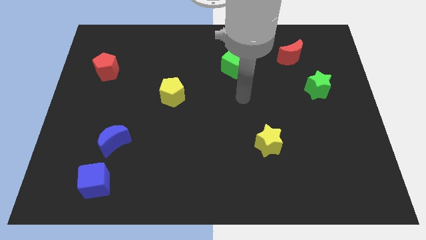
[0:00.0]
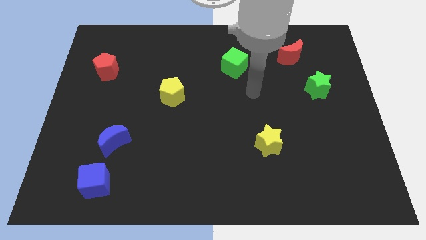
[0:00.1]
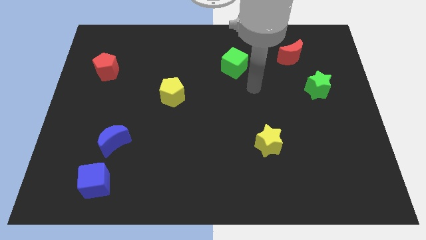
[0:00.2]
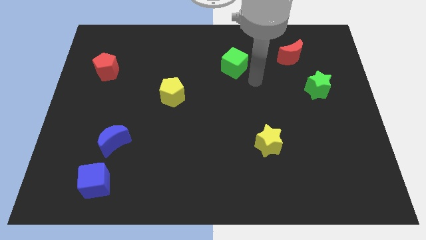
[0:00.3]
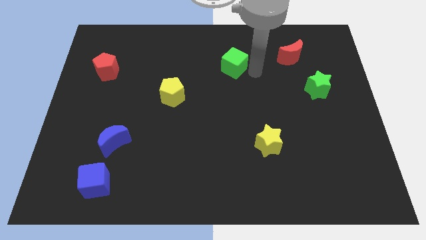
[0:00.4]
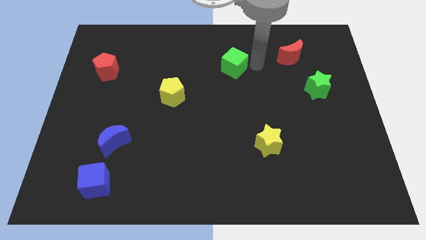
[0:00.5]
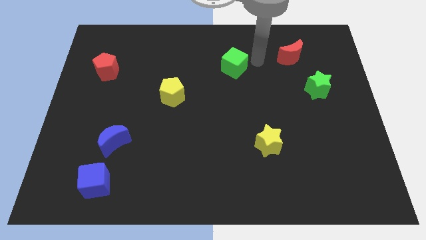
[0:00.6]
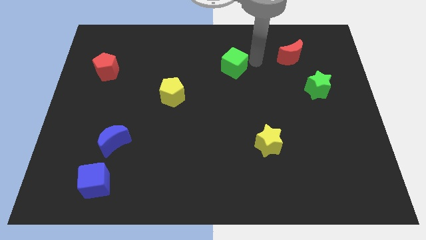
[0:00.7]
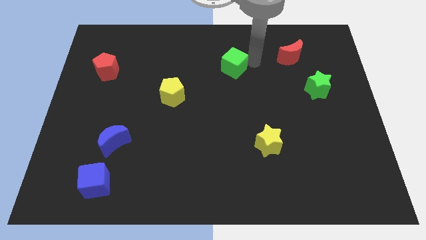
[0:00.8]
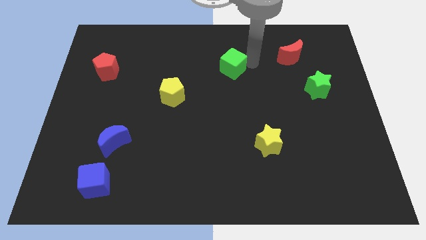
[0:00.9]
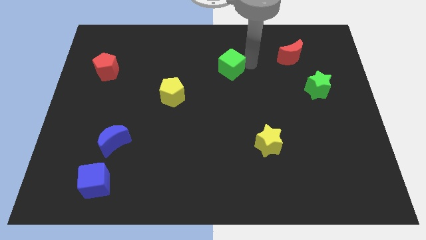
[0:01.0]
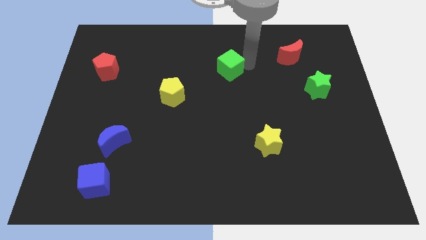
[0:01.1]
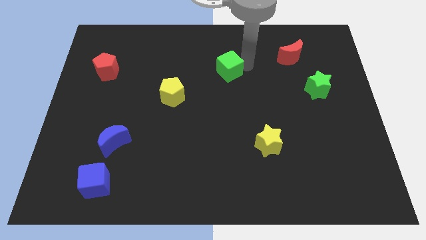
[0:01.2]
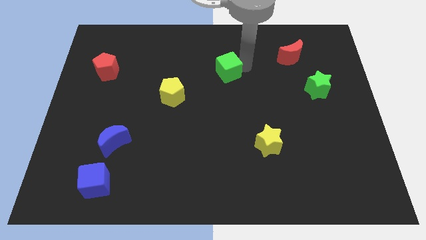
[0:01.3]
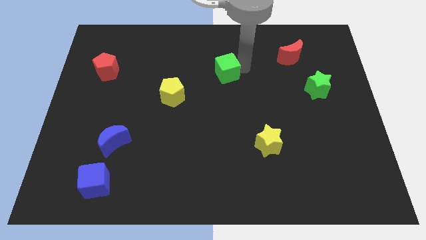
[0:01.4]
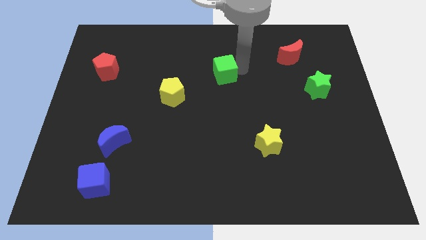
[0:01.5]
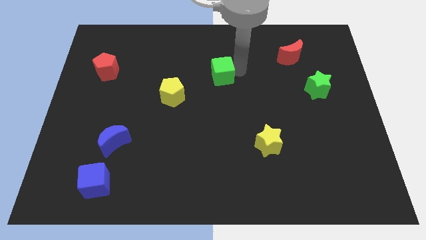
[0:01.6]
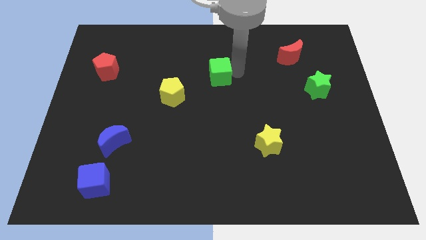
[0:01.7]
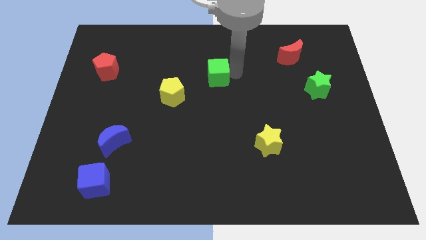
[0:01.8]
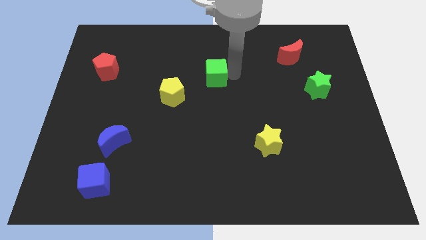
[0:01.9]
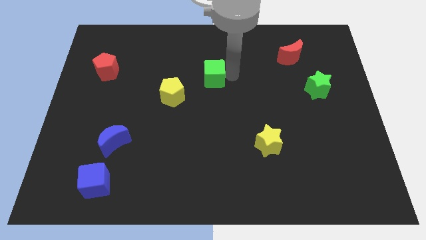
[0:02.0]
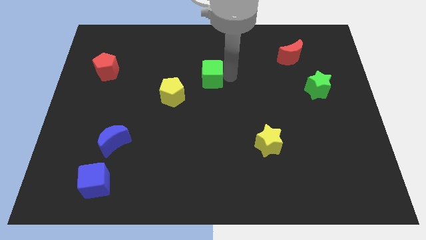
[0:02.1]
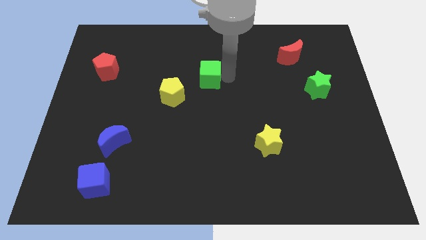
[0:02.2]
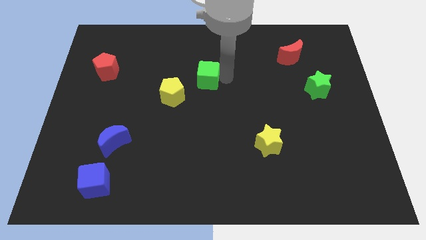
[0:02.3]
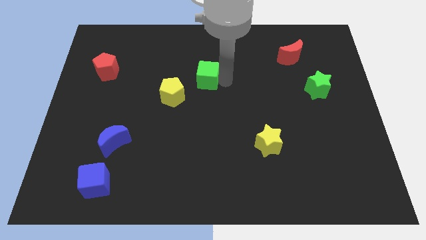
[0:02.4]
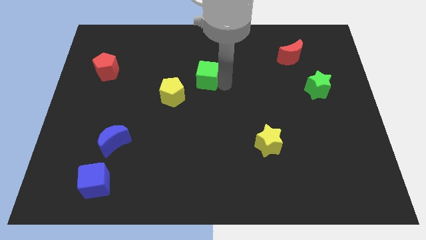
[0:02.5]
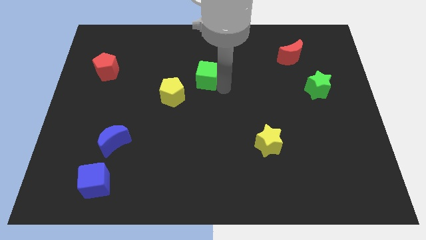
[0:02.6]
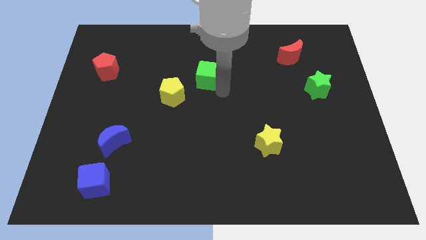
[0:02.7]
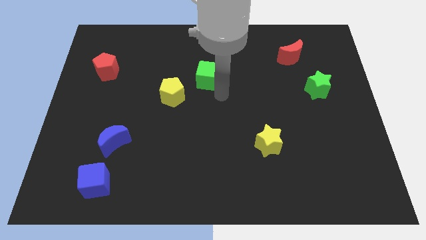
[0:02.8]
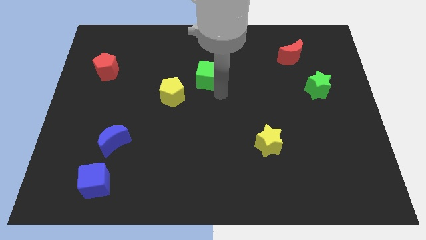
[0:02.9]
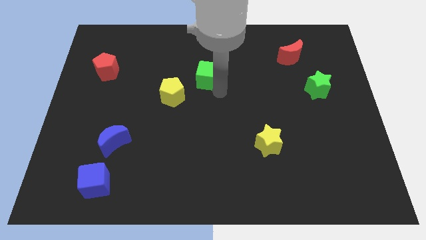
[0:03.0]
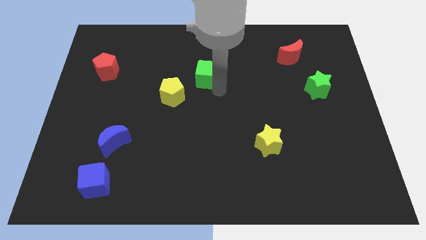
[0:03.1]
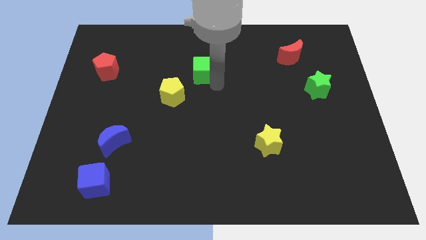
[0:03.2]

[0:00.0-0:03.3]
slide the green cube to the left a little bit

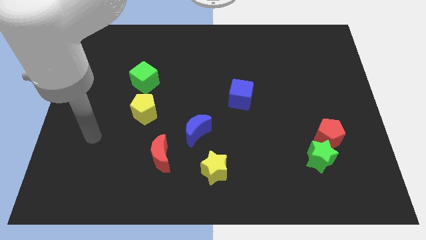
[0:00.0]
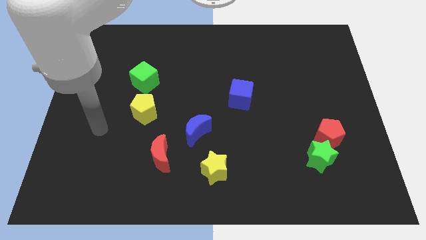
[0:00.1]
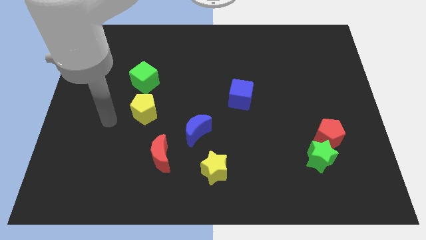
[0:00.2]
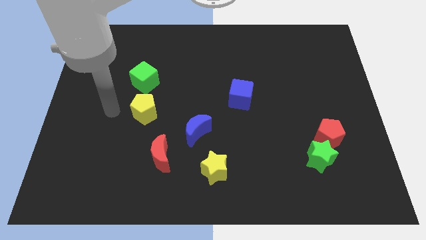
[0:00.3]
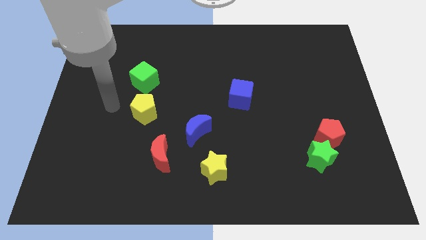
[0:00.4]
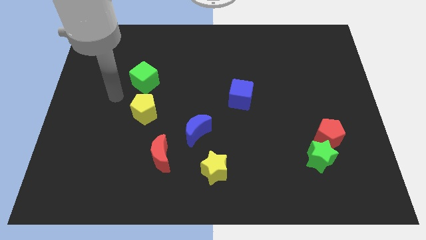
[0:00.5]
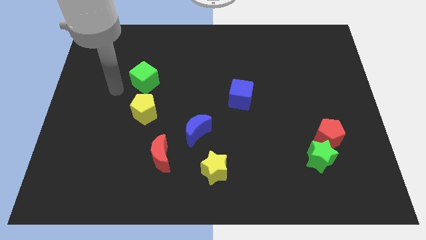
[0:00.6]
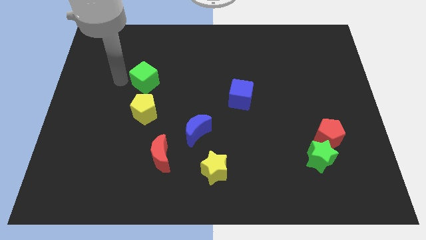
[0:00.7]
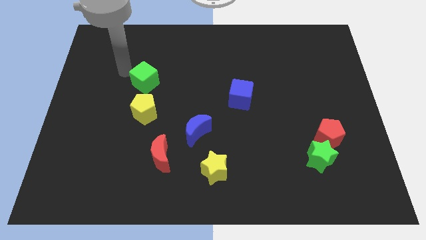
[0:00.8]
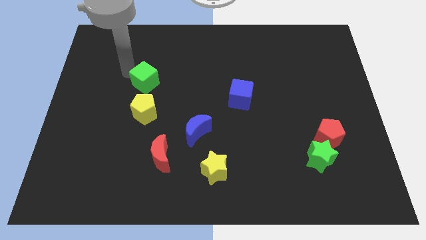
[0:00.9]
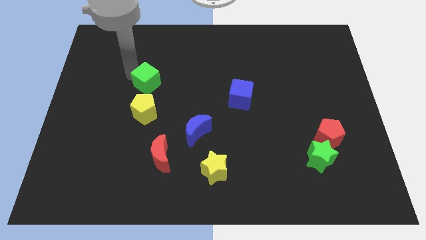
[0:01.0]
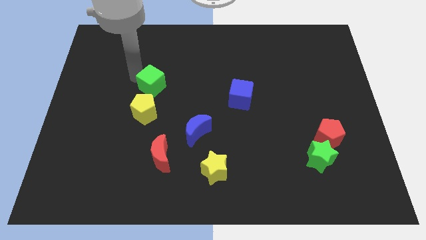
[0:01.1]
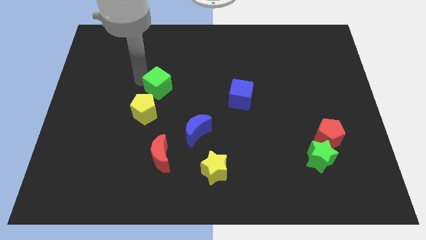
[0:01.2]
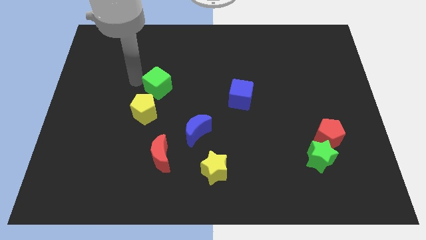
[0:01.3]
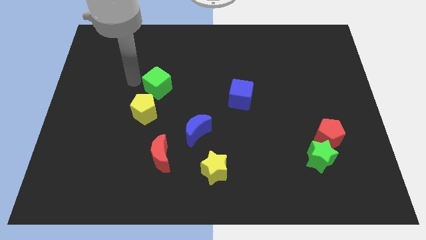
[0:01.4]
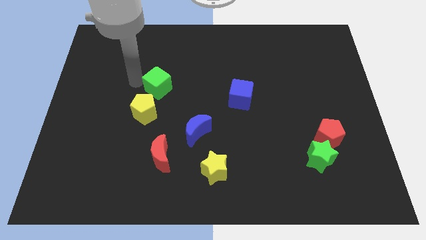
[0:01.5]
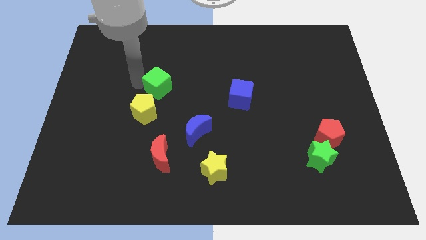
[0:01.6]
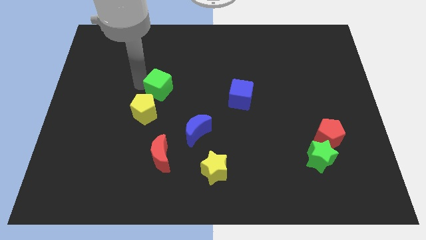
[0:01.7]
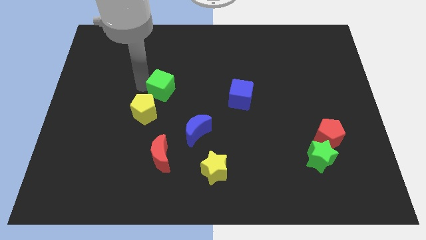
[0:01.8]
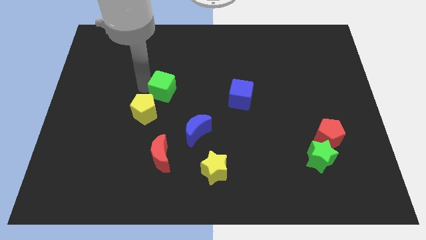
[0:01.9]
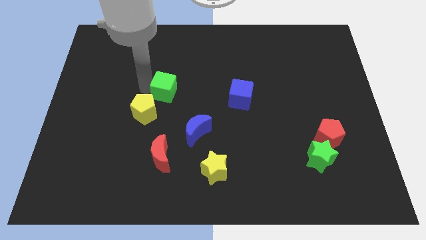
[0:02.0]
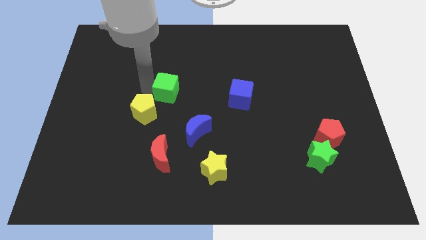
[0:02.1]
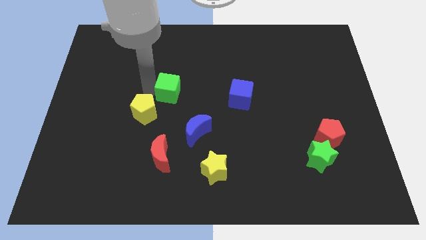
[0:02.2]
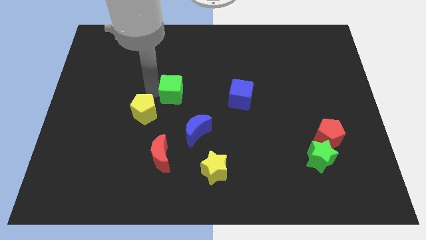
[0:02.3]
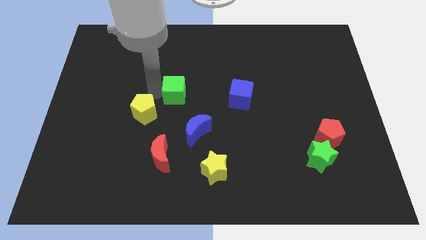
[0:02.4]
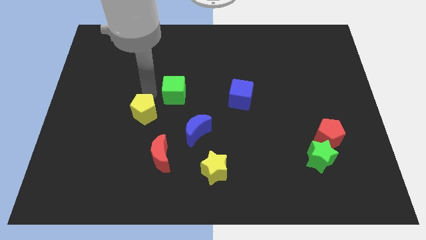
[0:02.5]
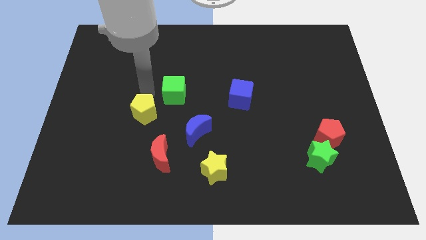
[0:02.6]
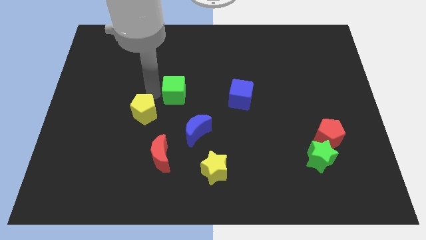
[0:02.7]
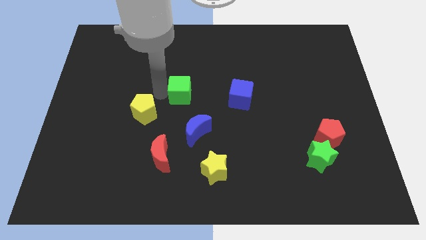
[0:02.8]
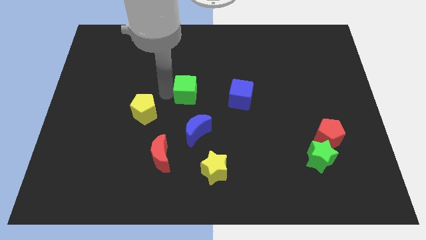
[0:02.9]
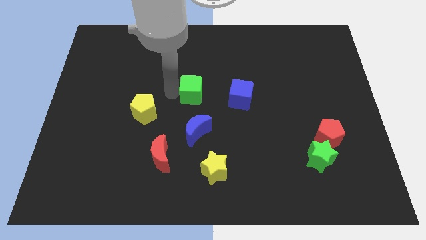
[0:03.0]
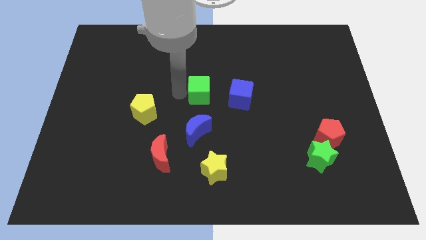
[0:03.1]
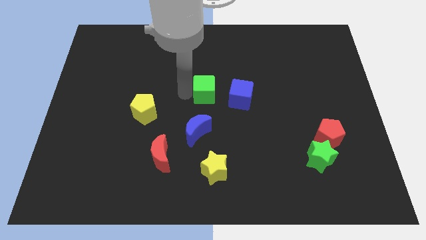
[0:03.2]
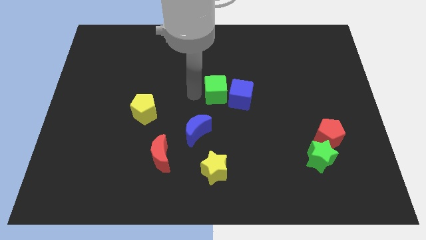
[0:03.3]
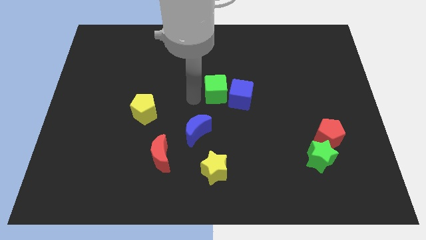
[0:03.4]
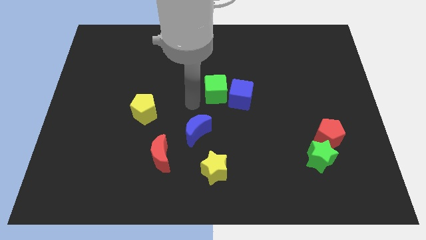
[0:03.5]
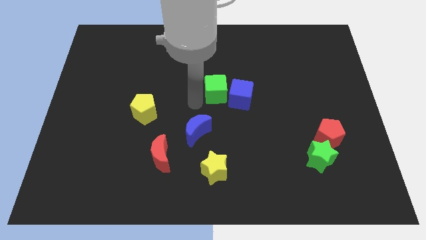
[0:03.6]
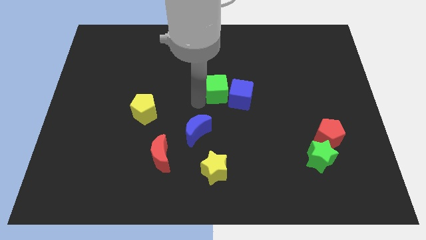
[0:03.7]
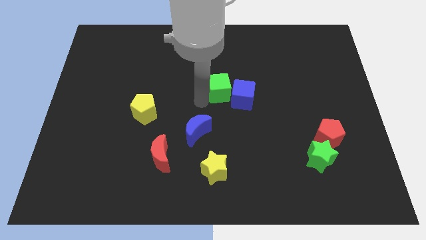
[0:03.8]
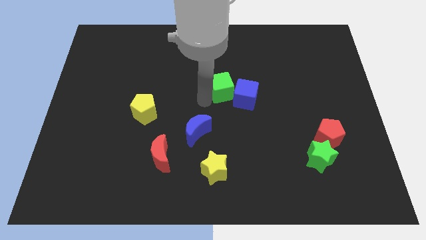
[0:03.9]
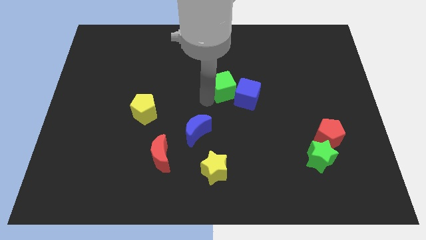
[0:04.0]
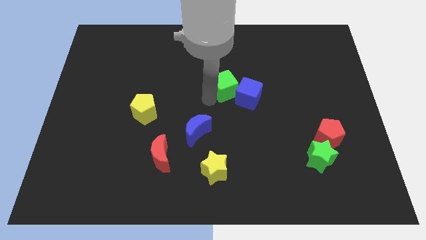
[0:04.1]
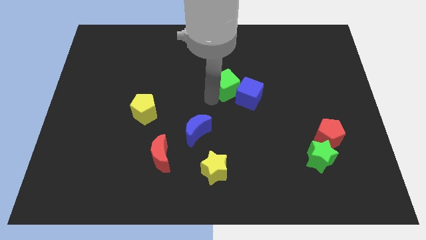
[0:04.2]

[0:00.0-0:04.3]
slide the green cube to the right

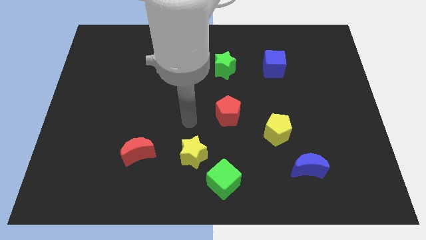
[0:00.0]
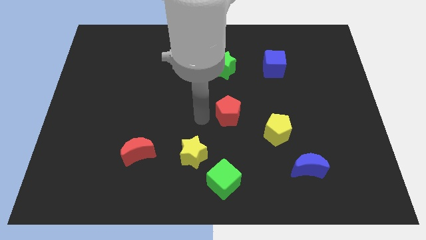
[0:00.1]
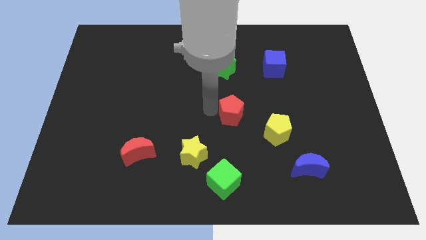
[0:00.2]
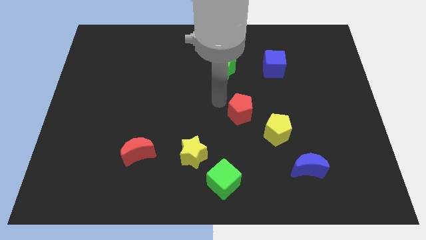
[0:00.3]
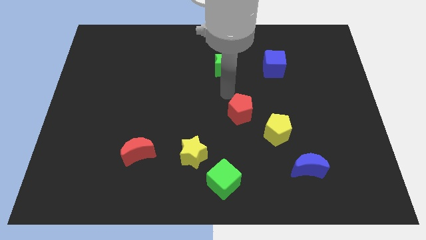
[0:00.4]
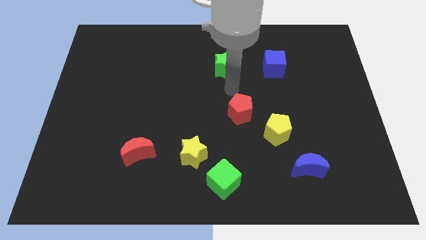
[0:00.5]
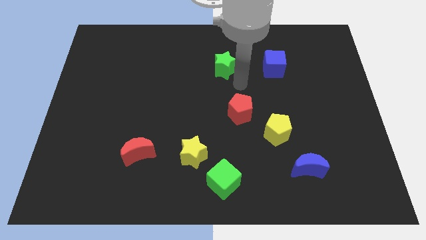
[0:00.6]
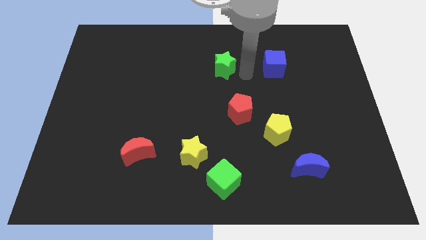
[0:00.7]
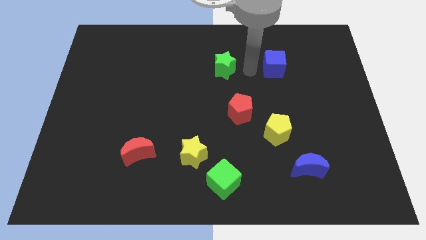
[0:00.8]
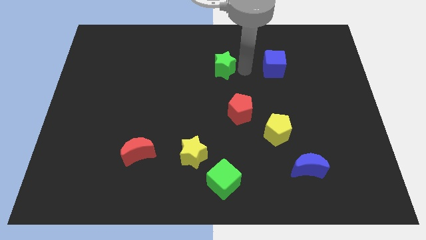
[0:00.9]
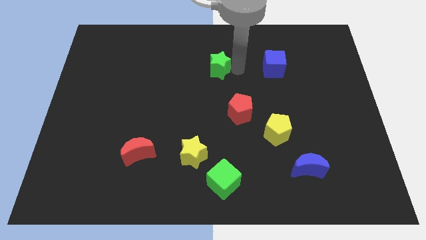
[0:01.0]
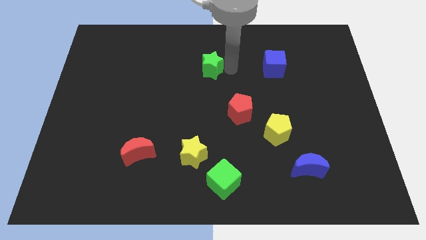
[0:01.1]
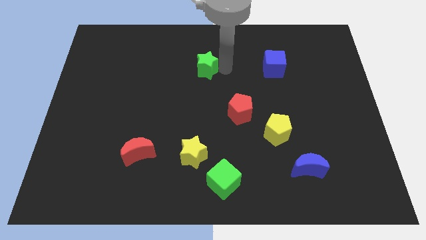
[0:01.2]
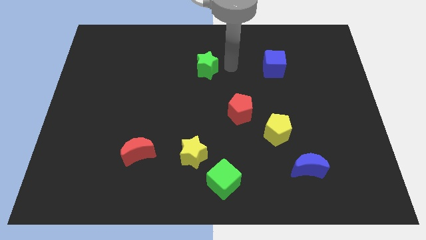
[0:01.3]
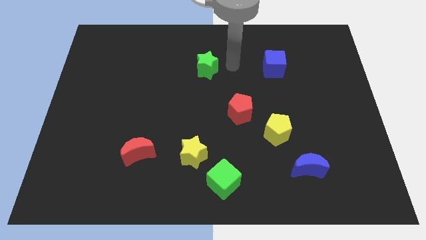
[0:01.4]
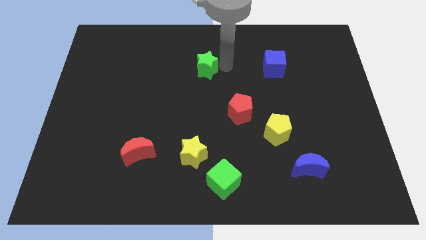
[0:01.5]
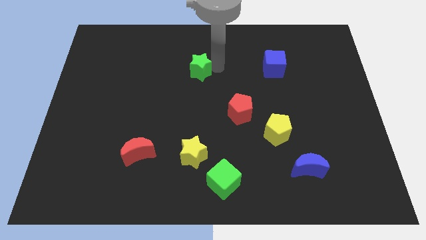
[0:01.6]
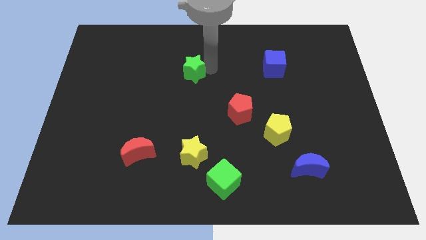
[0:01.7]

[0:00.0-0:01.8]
move the green star a little bit to the left
